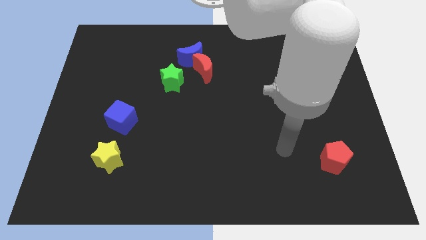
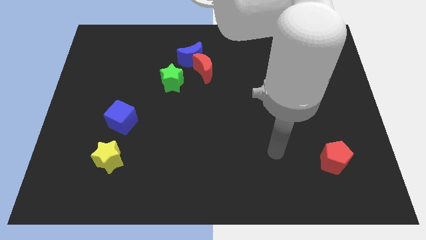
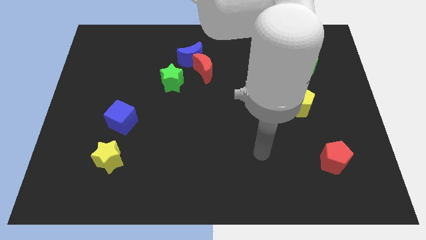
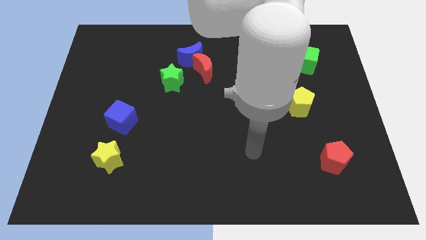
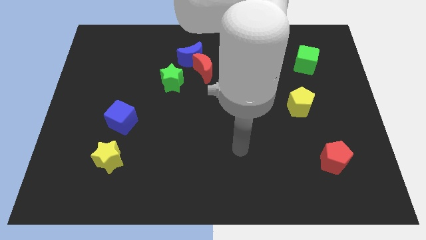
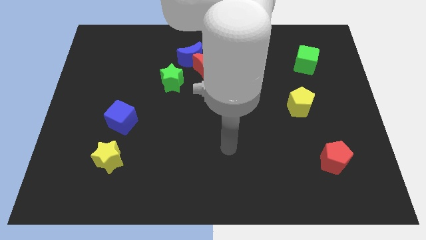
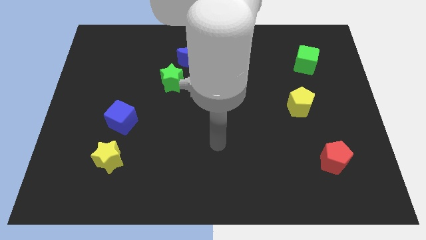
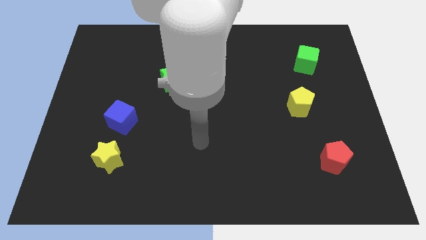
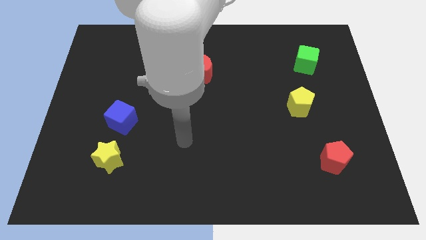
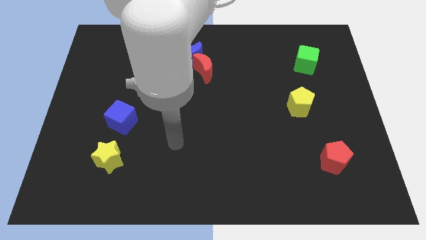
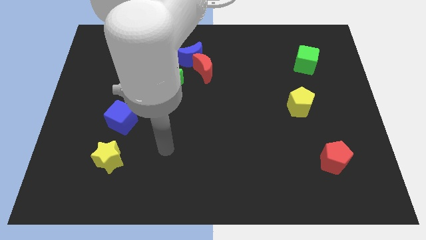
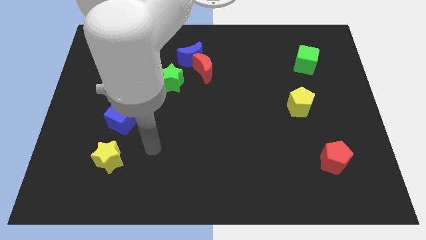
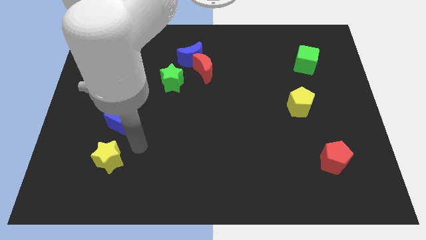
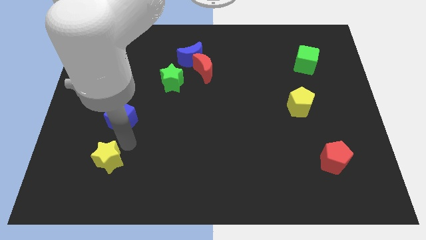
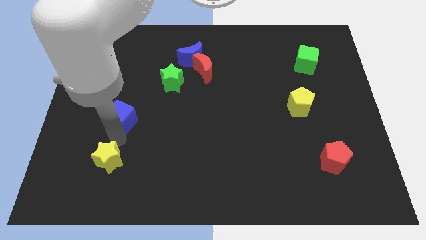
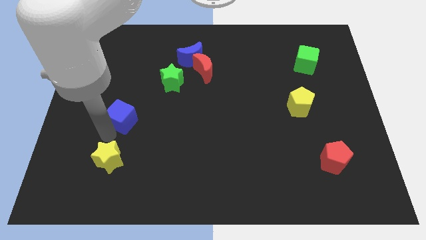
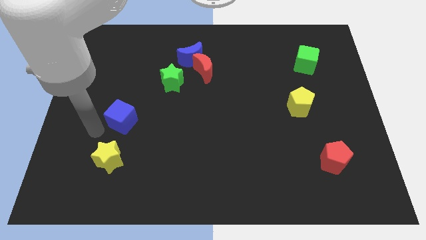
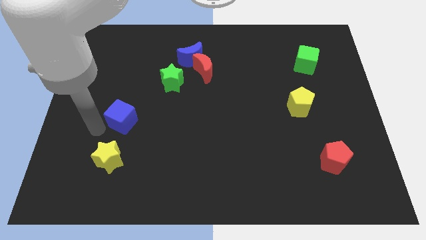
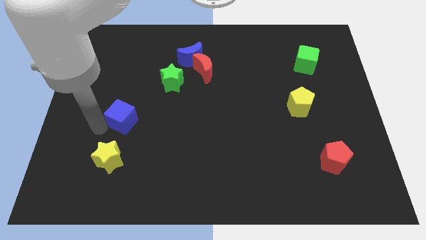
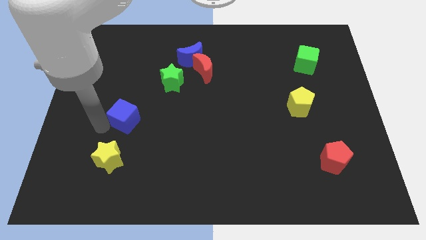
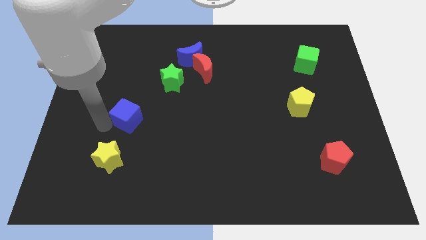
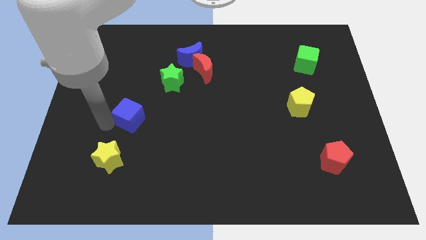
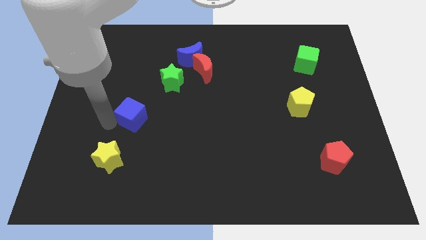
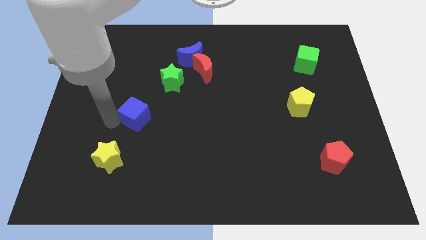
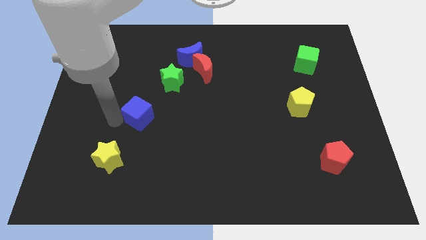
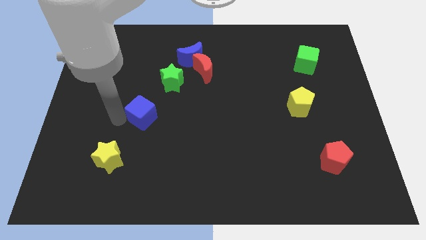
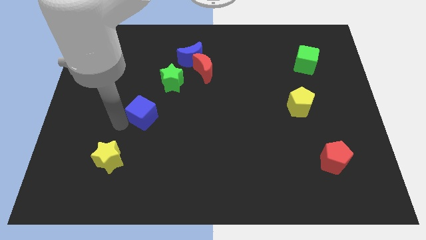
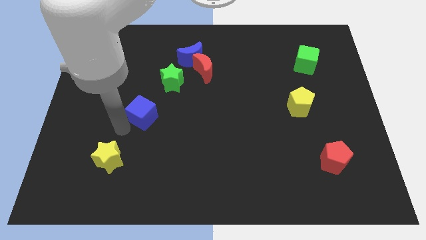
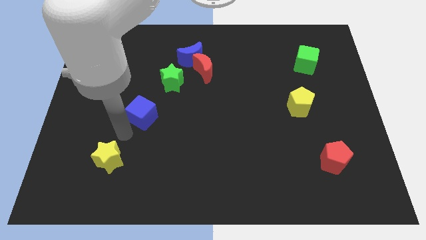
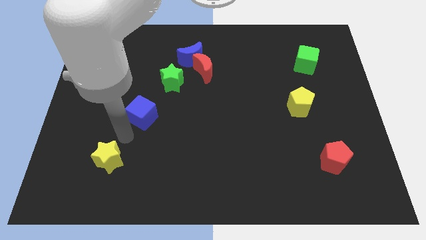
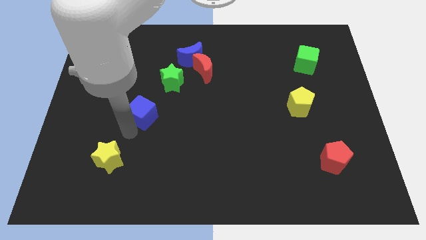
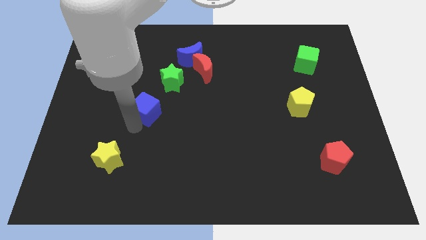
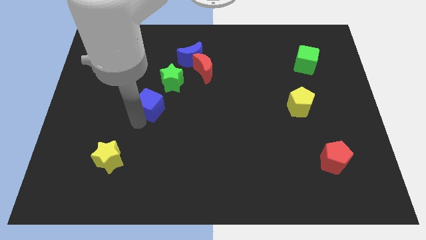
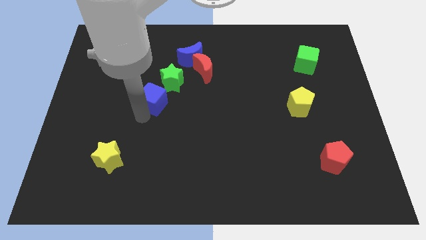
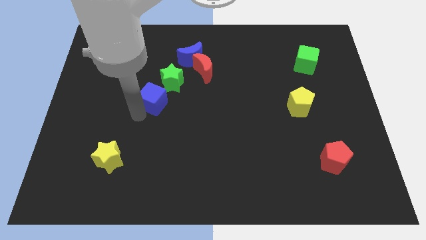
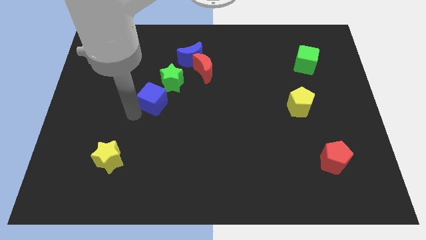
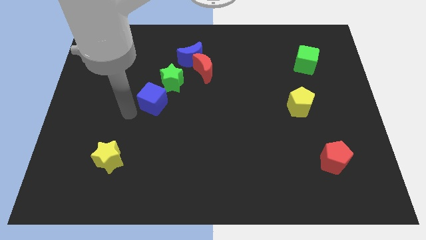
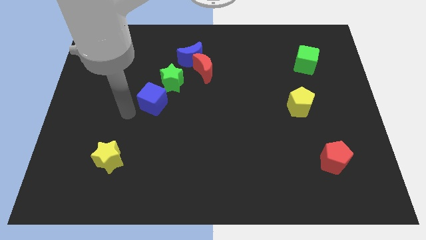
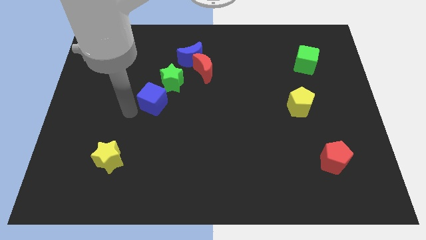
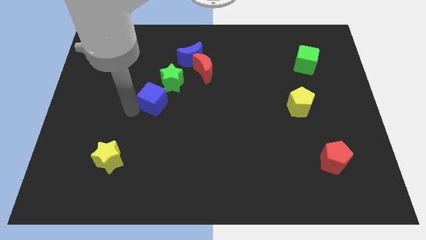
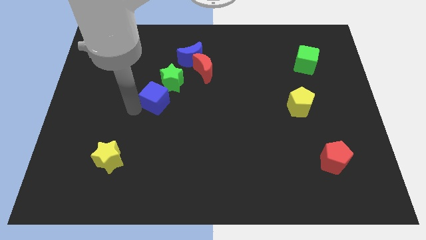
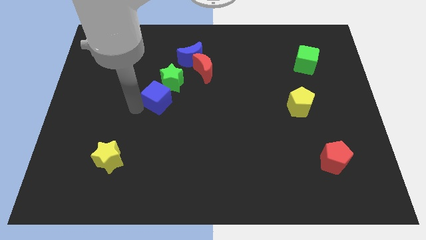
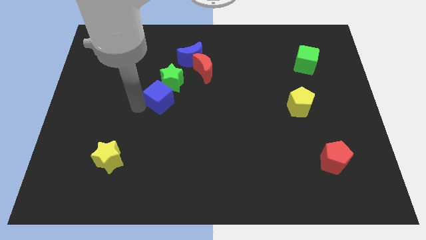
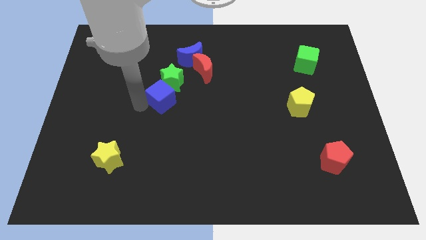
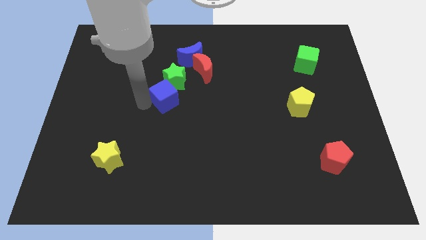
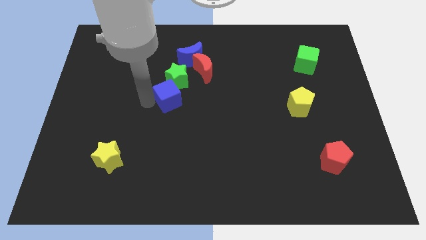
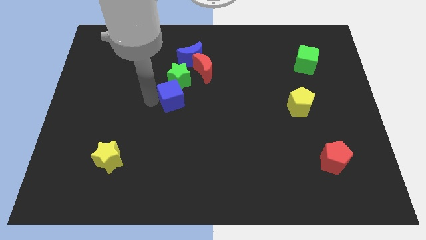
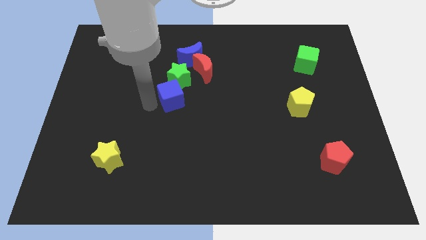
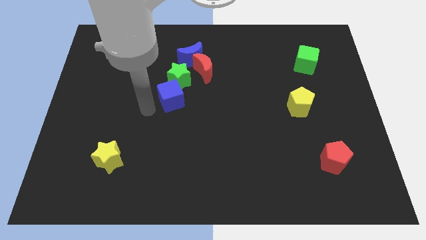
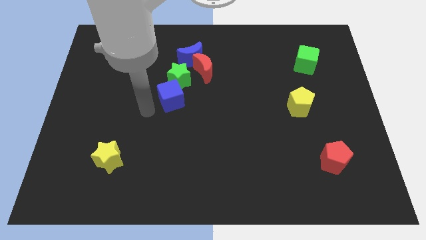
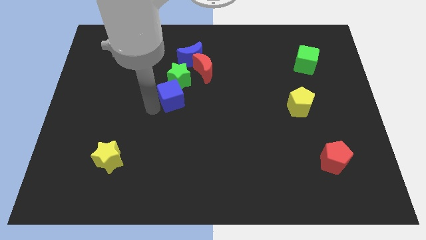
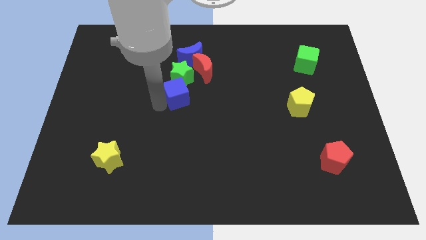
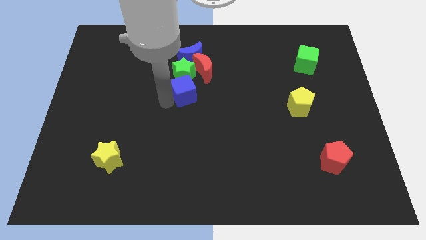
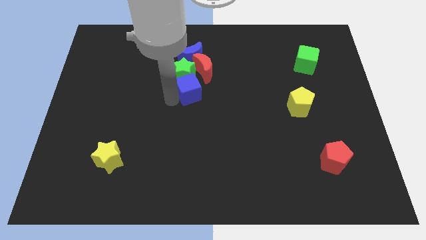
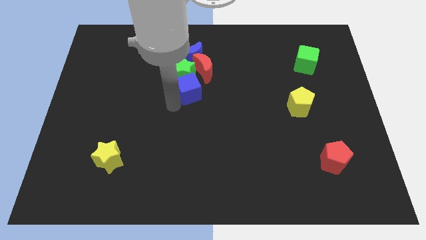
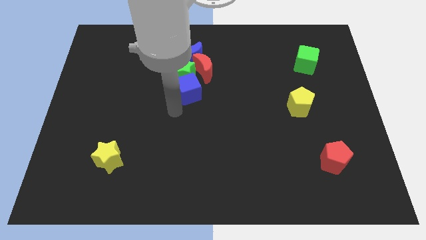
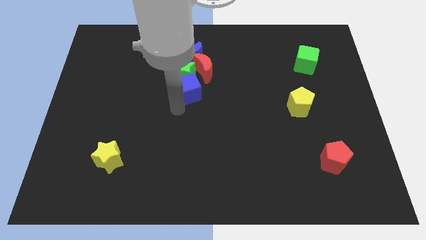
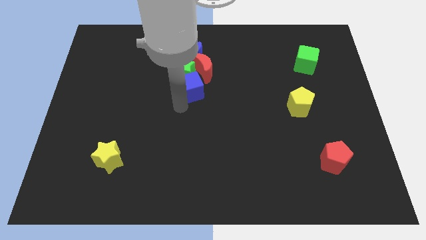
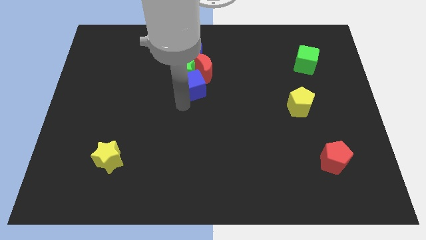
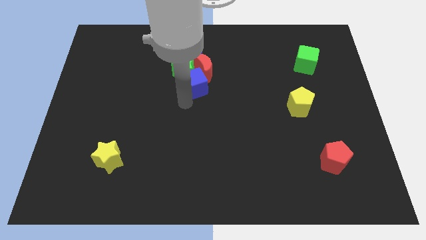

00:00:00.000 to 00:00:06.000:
move the blue cube to the red moon

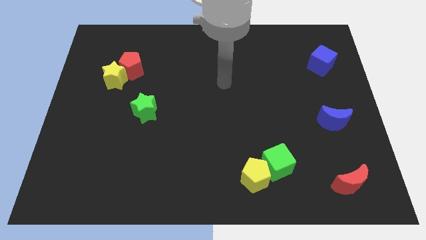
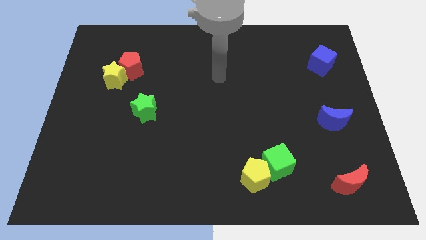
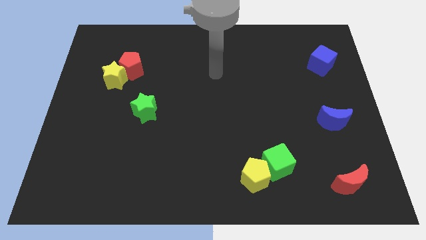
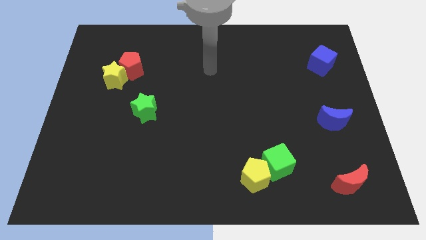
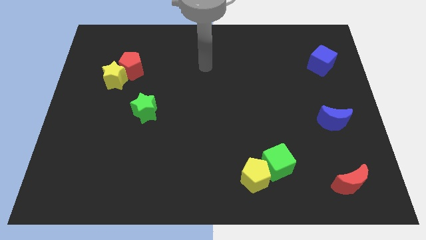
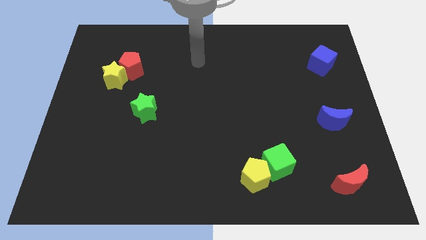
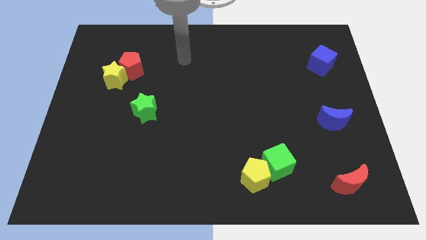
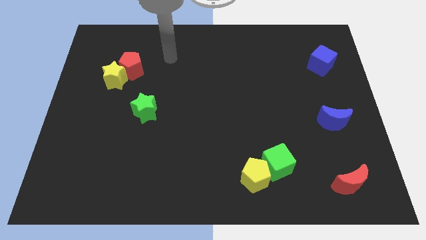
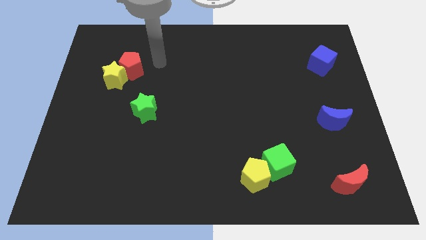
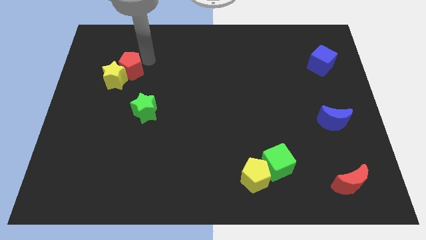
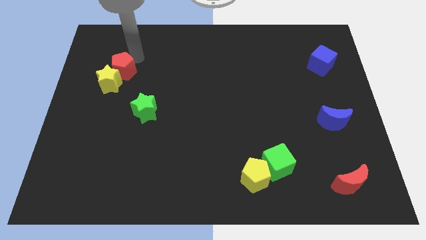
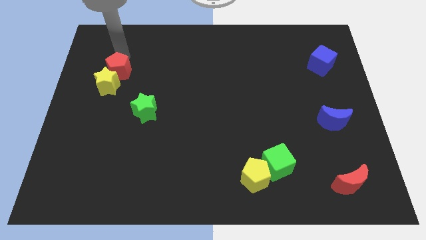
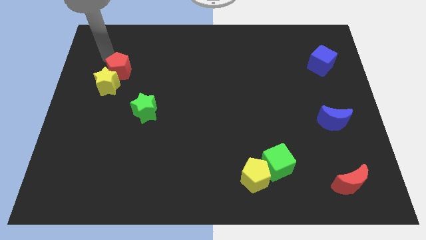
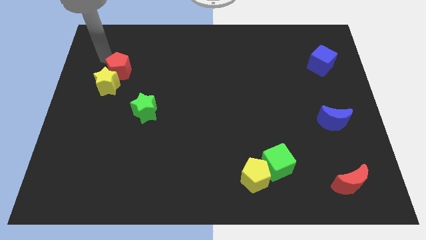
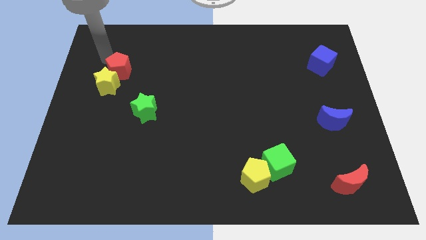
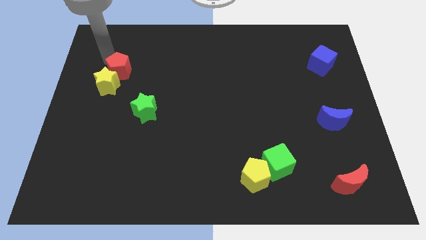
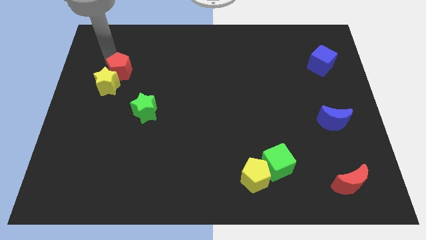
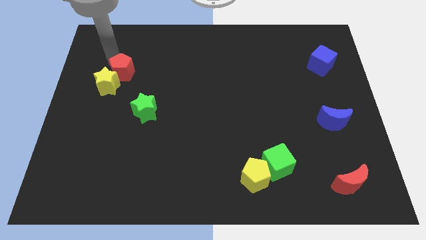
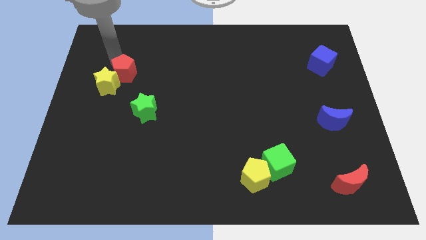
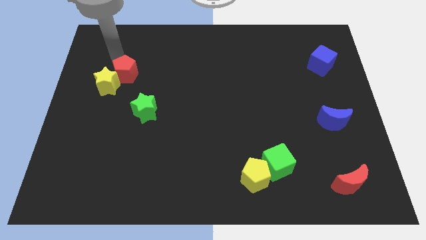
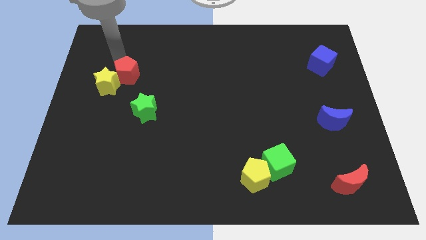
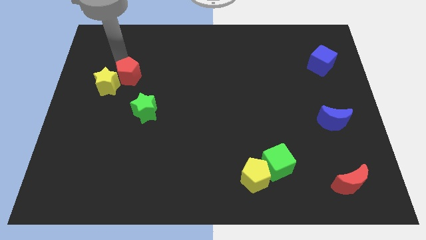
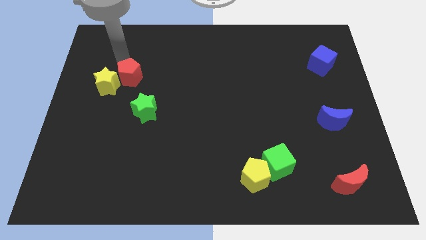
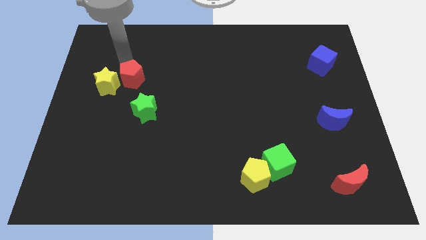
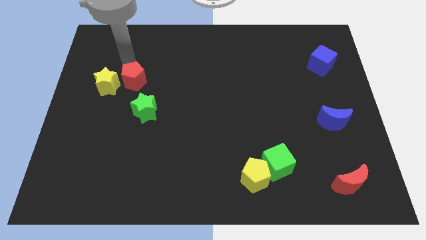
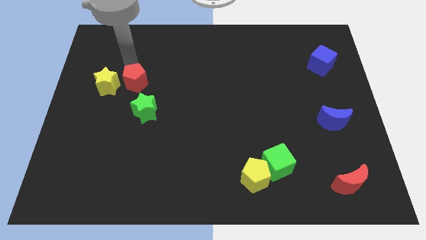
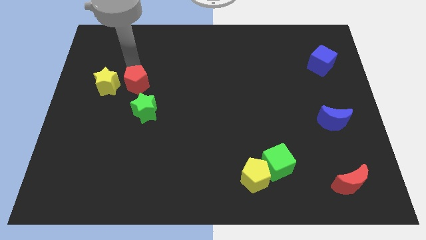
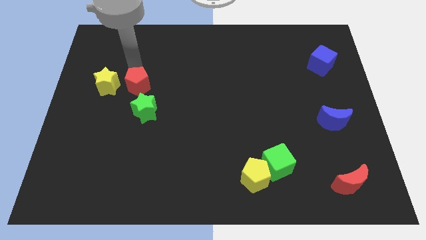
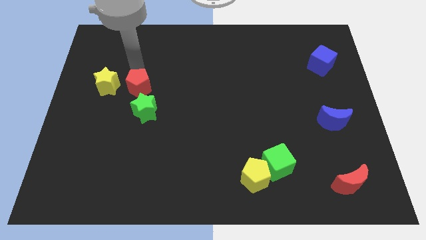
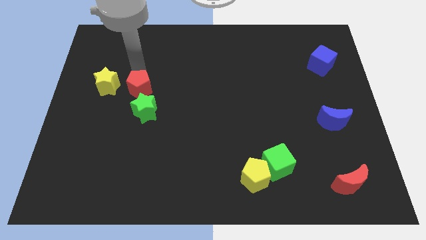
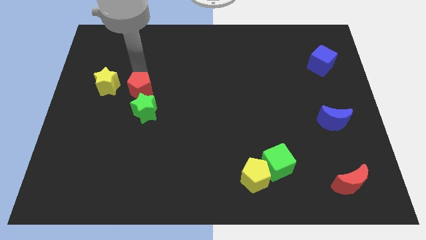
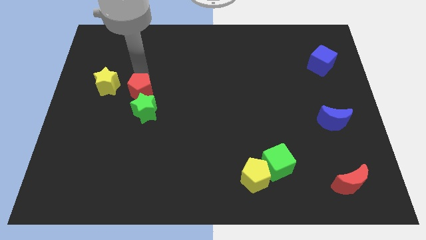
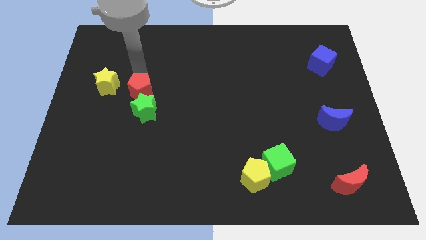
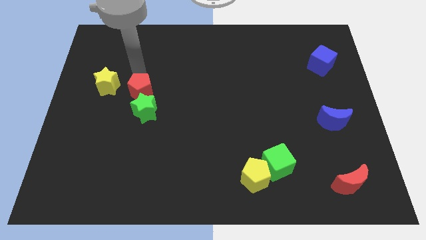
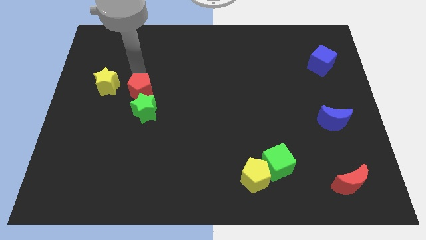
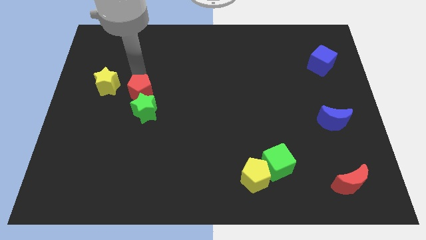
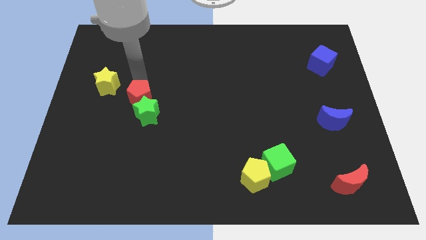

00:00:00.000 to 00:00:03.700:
put the red pentagon next to the green star
